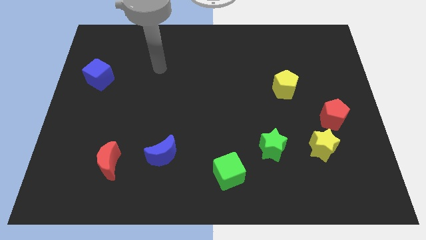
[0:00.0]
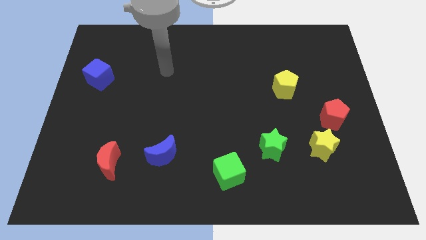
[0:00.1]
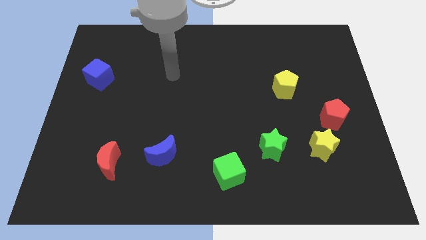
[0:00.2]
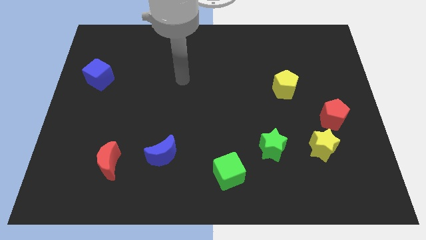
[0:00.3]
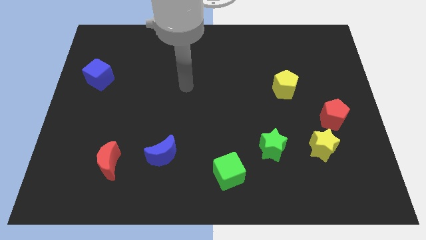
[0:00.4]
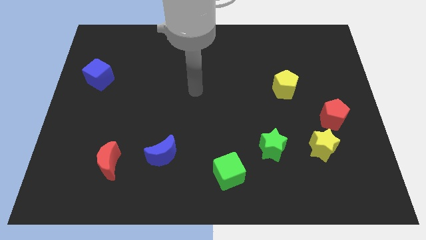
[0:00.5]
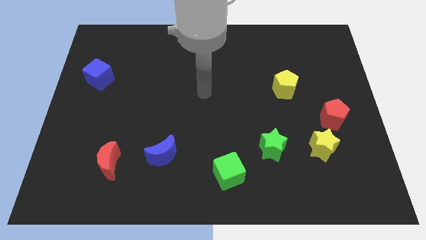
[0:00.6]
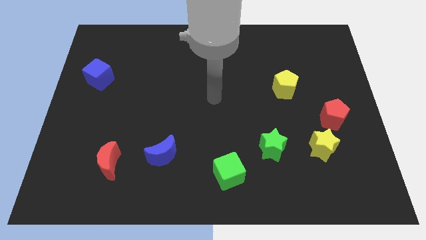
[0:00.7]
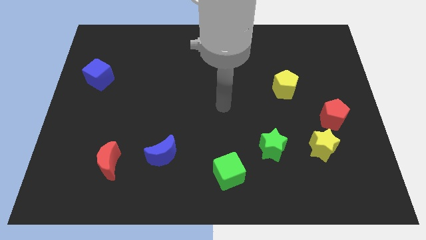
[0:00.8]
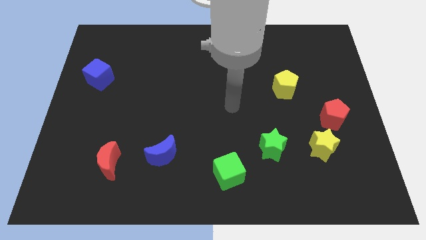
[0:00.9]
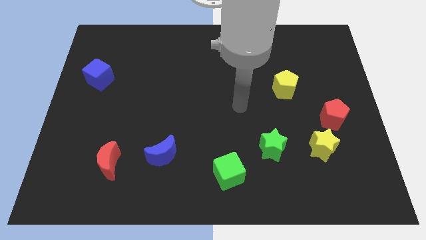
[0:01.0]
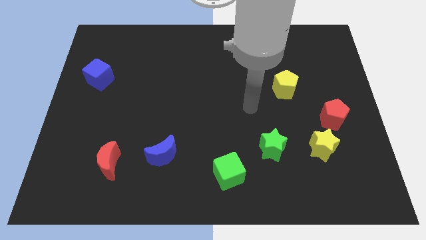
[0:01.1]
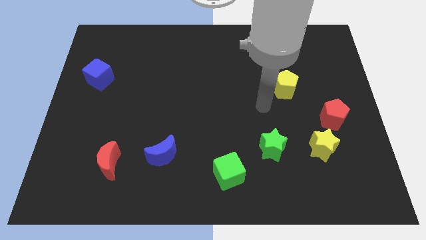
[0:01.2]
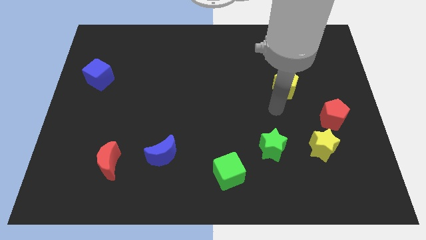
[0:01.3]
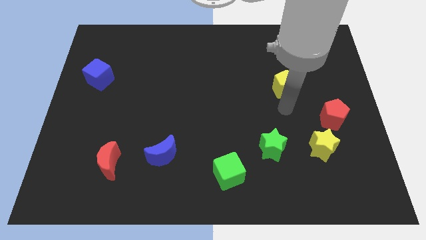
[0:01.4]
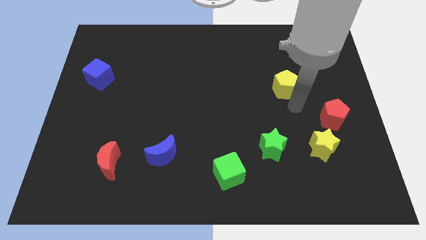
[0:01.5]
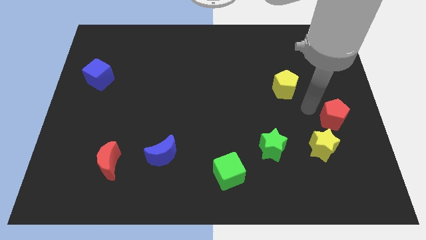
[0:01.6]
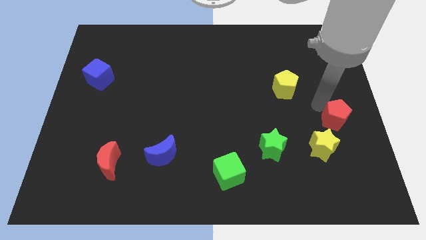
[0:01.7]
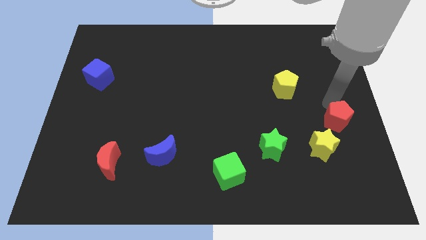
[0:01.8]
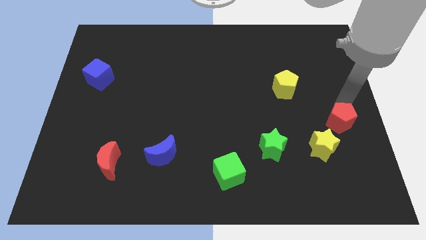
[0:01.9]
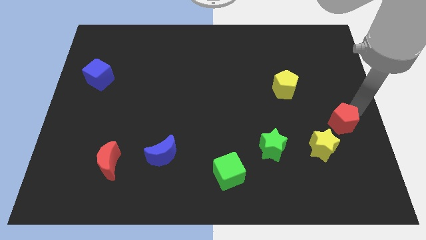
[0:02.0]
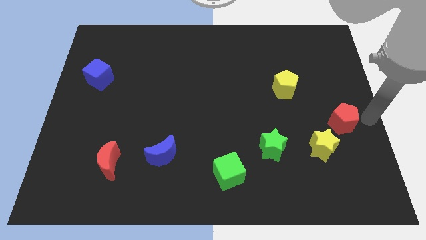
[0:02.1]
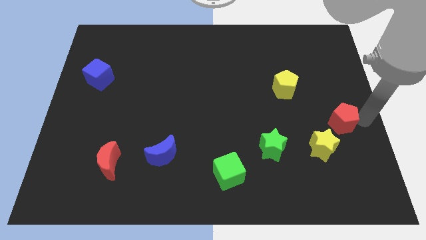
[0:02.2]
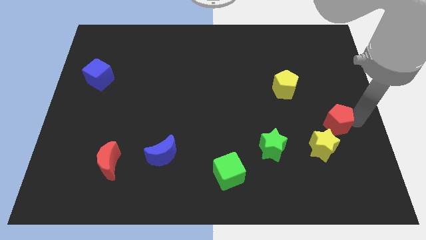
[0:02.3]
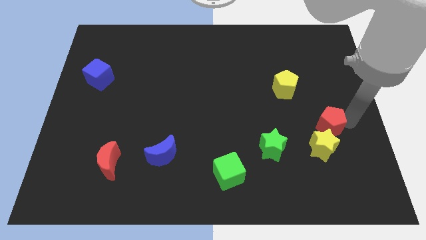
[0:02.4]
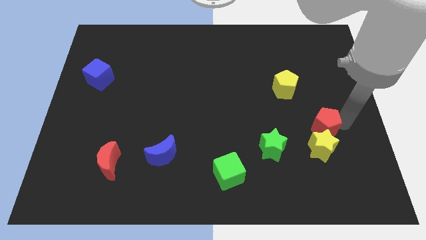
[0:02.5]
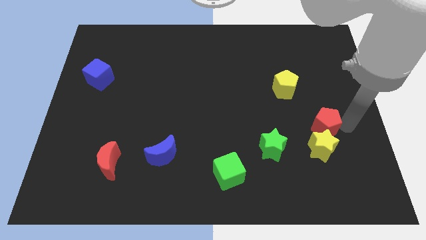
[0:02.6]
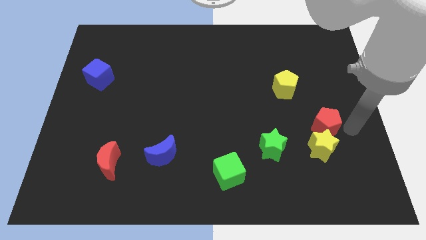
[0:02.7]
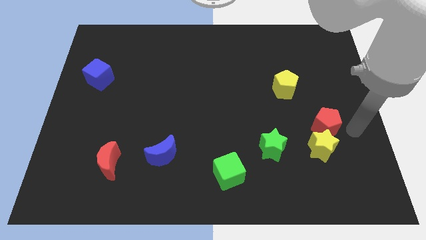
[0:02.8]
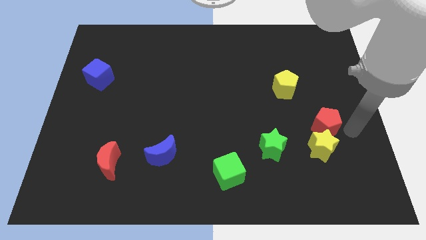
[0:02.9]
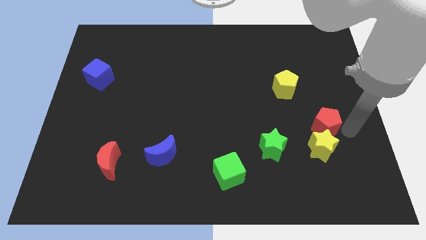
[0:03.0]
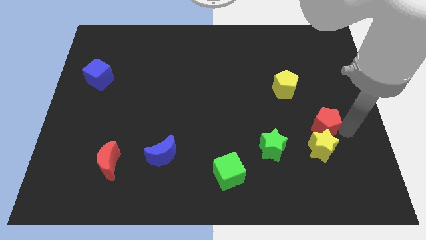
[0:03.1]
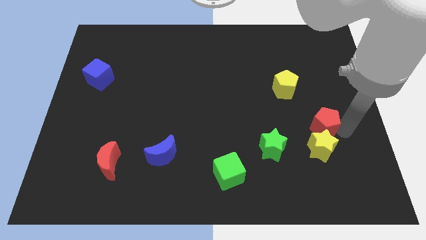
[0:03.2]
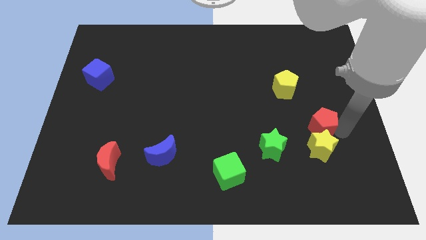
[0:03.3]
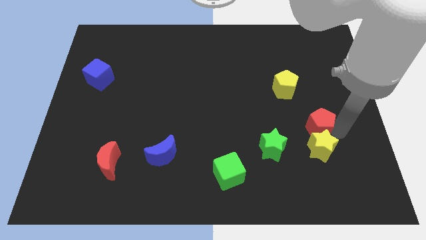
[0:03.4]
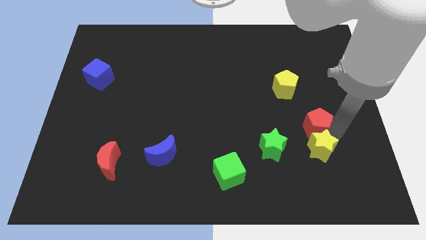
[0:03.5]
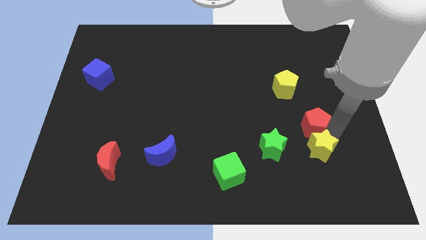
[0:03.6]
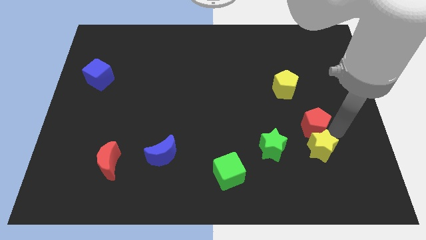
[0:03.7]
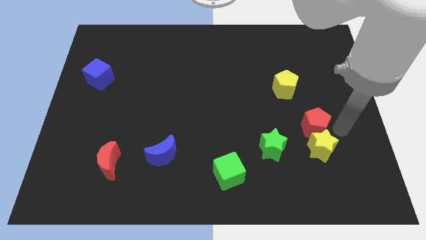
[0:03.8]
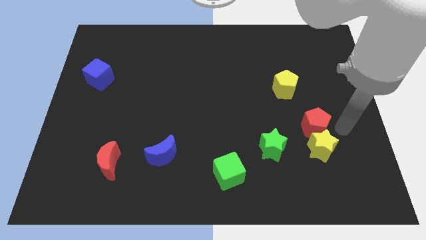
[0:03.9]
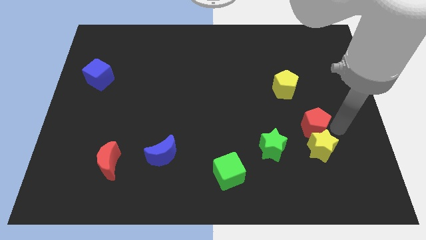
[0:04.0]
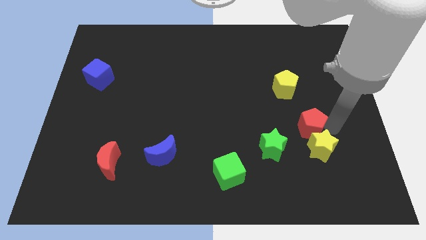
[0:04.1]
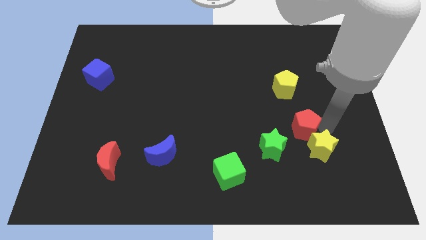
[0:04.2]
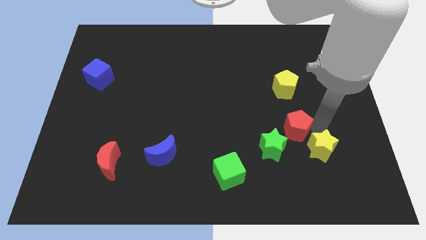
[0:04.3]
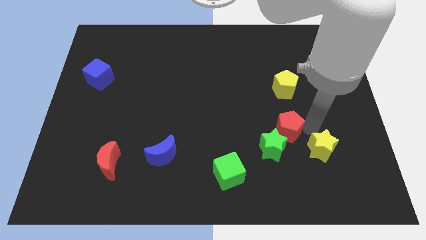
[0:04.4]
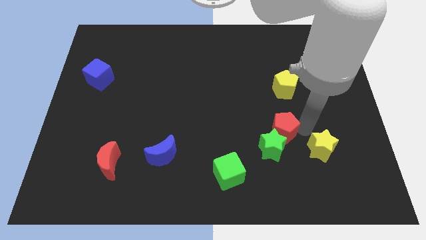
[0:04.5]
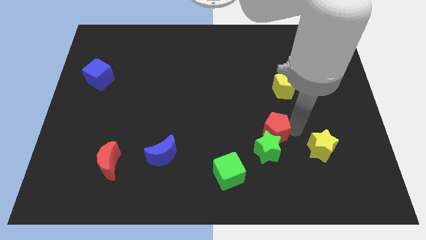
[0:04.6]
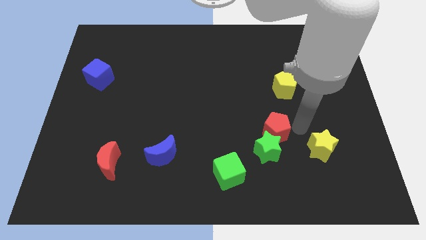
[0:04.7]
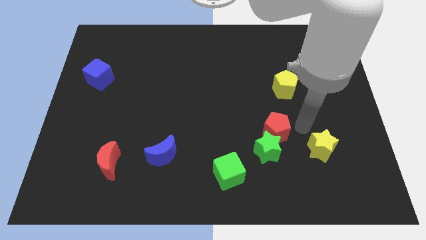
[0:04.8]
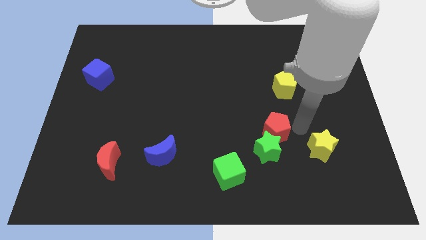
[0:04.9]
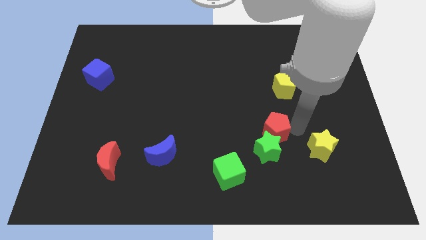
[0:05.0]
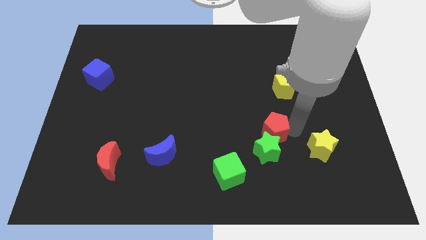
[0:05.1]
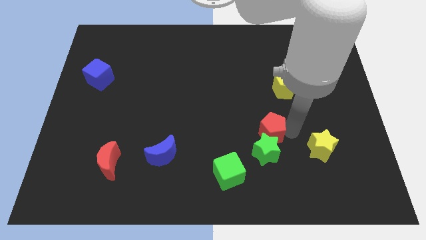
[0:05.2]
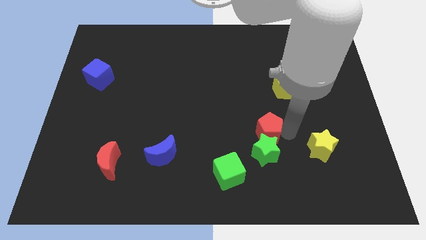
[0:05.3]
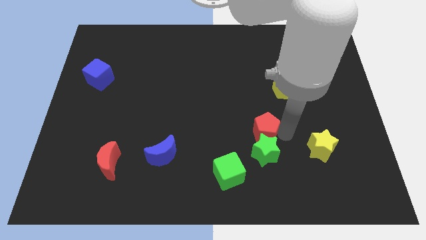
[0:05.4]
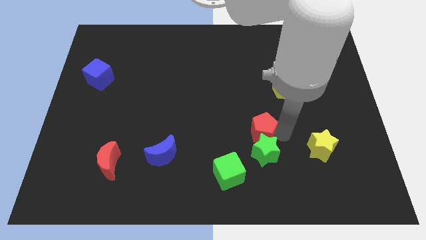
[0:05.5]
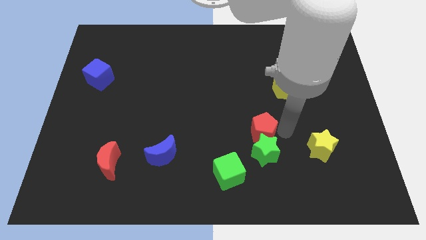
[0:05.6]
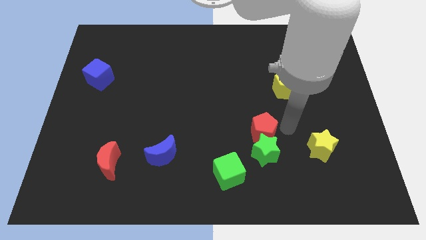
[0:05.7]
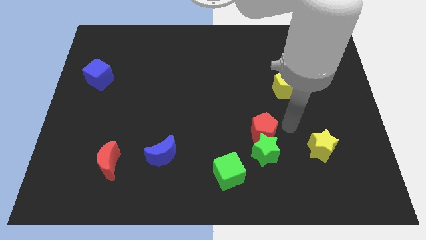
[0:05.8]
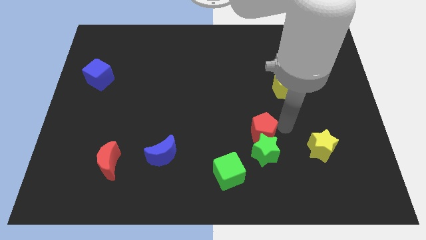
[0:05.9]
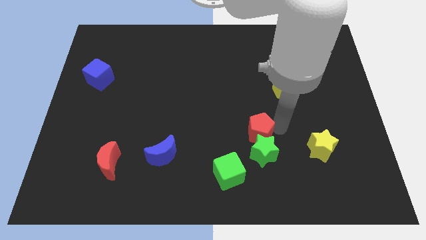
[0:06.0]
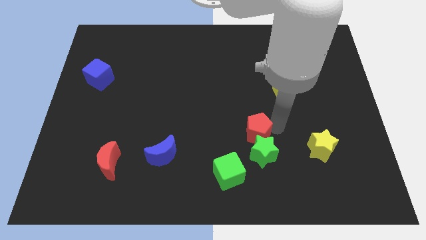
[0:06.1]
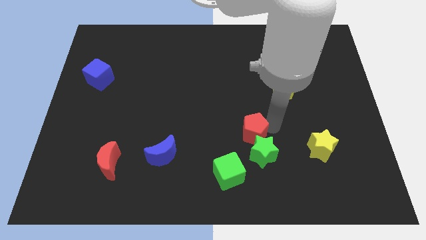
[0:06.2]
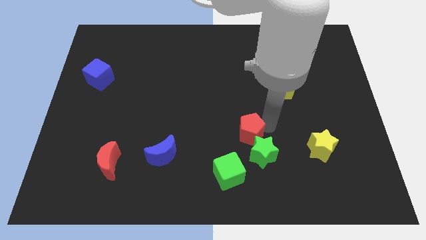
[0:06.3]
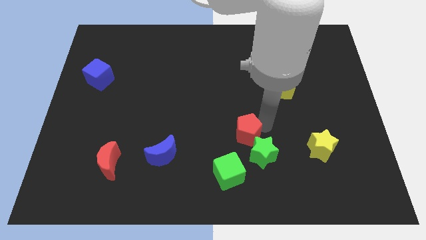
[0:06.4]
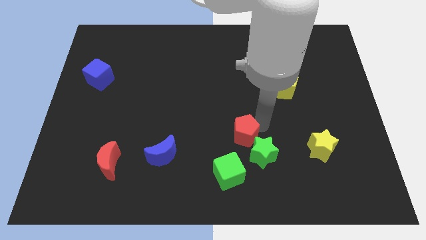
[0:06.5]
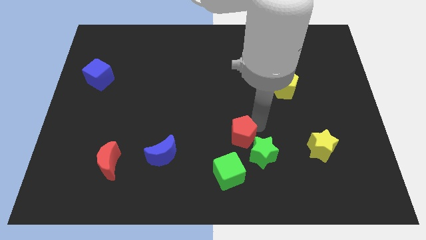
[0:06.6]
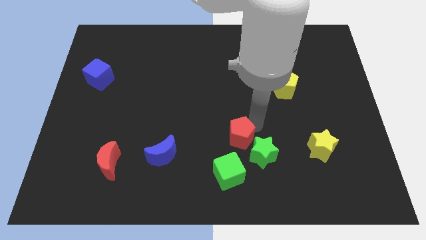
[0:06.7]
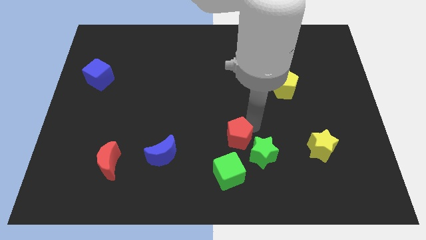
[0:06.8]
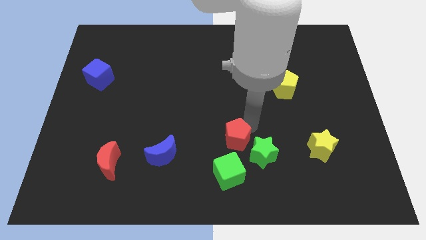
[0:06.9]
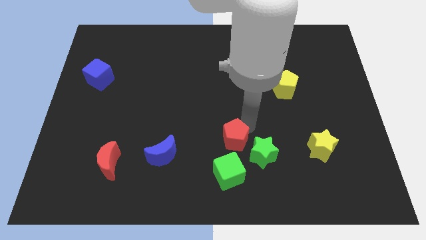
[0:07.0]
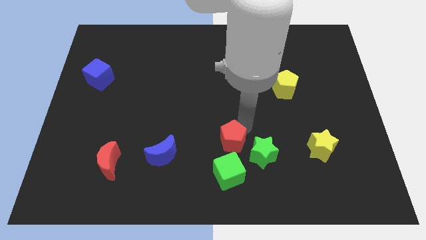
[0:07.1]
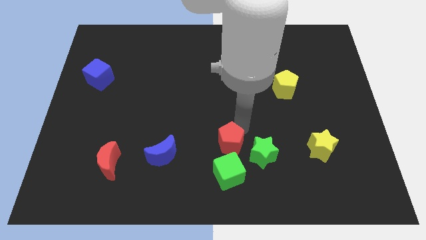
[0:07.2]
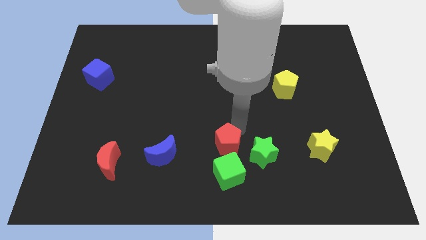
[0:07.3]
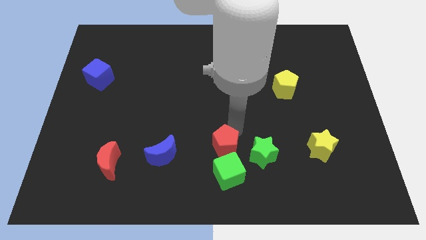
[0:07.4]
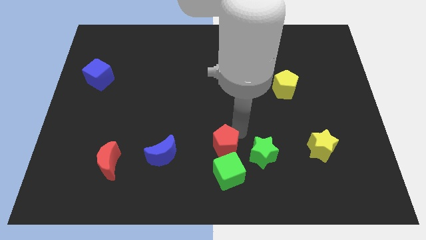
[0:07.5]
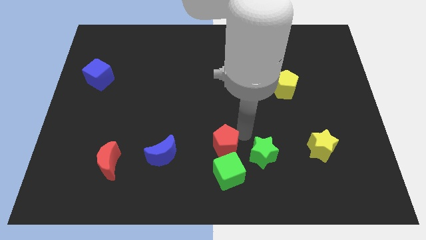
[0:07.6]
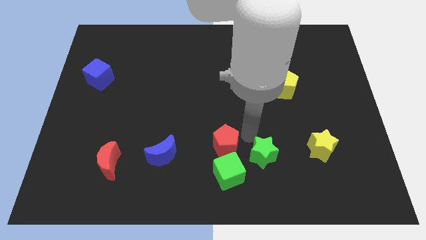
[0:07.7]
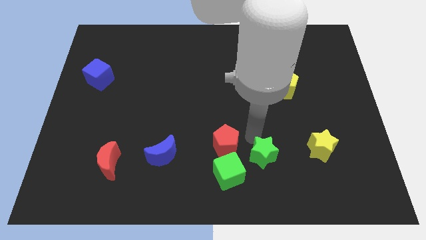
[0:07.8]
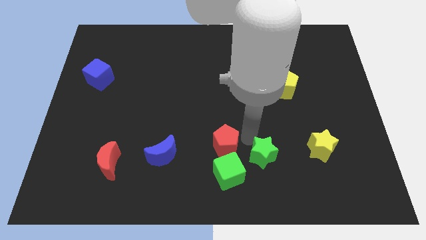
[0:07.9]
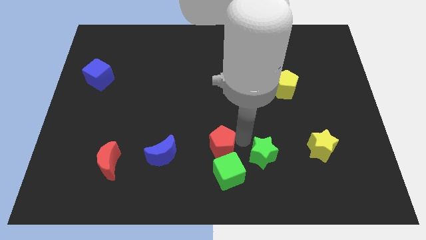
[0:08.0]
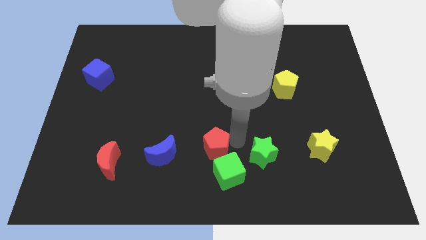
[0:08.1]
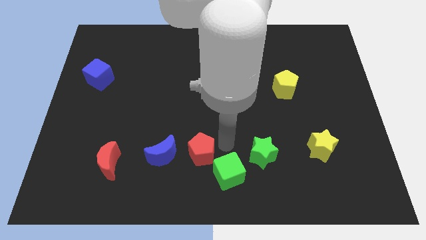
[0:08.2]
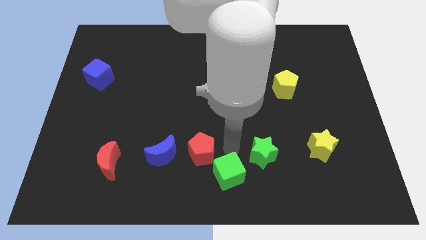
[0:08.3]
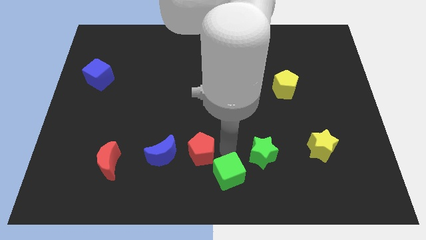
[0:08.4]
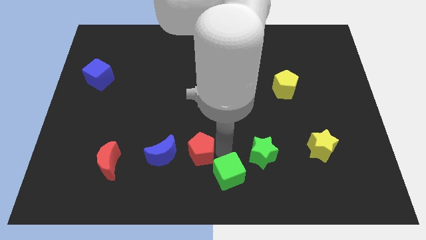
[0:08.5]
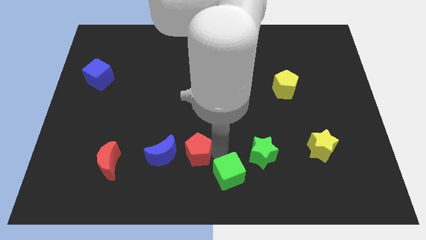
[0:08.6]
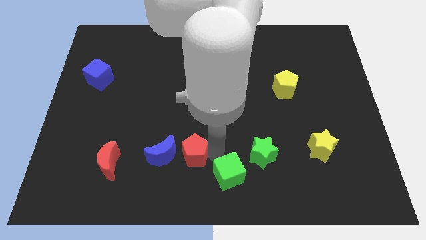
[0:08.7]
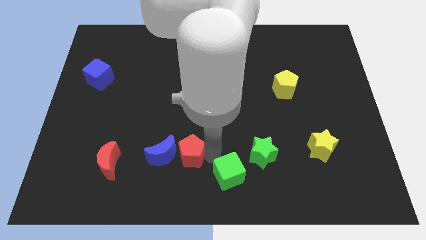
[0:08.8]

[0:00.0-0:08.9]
slide the red pentagon close to the blue moon
